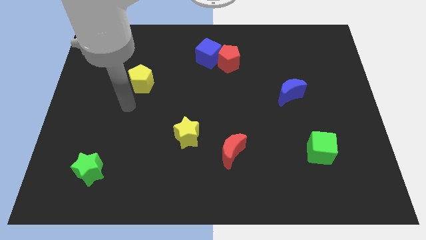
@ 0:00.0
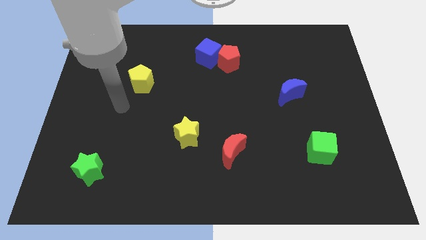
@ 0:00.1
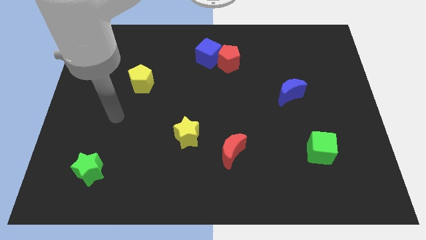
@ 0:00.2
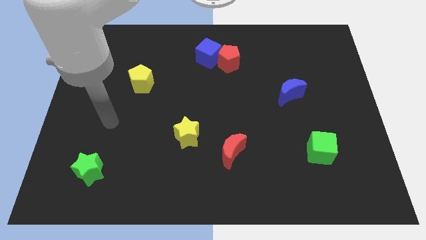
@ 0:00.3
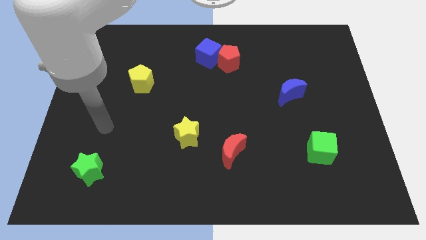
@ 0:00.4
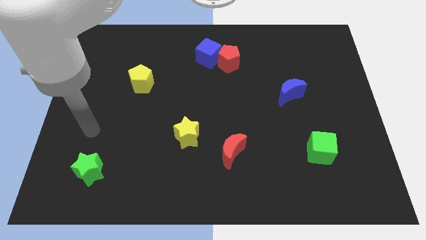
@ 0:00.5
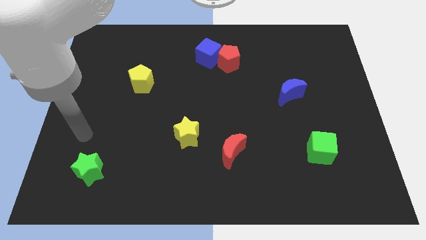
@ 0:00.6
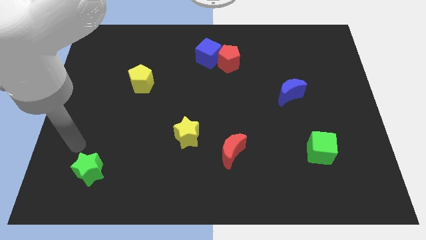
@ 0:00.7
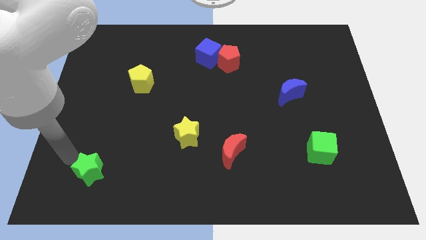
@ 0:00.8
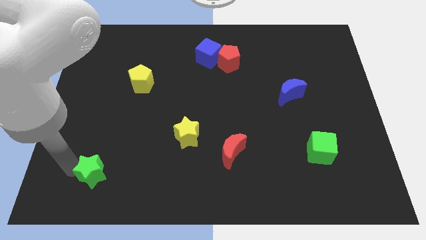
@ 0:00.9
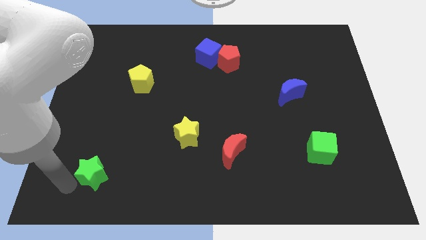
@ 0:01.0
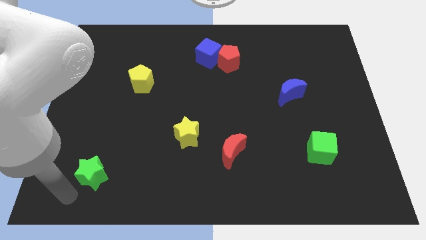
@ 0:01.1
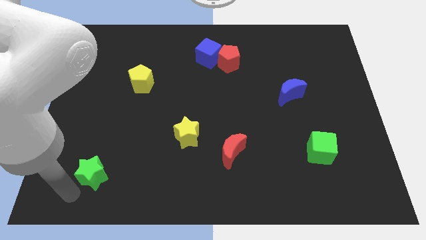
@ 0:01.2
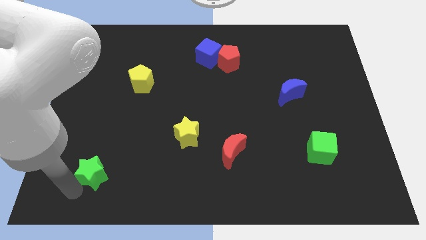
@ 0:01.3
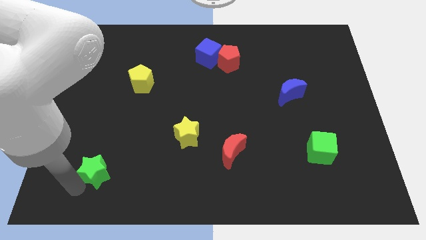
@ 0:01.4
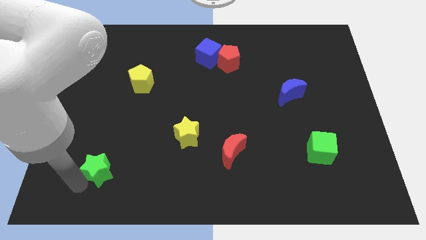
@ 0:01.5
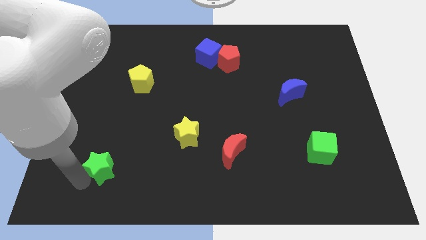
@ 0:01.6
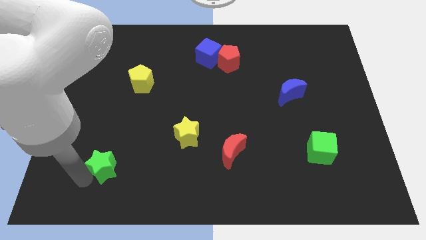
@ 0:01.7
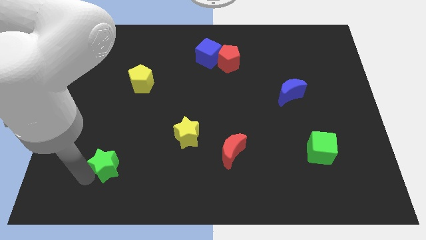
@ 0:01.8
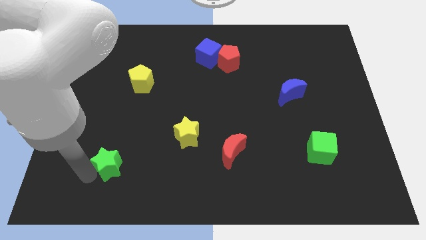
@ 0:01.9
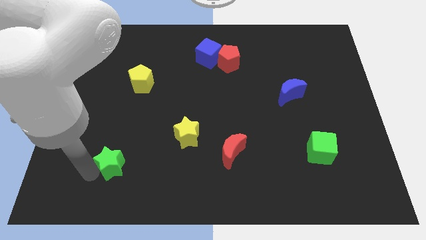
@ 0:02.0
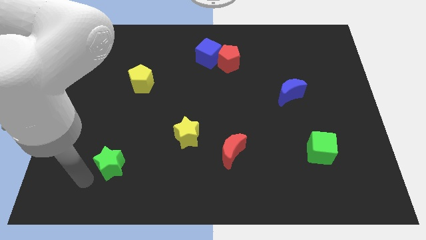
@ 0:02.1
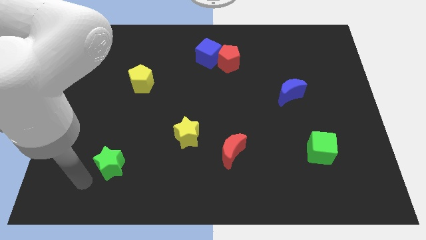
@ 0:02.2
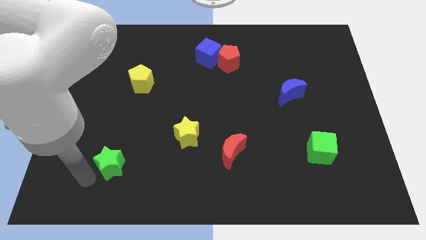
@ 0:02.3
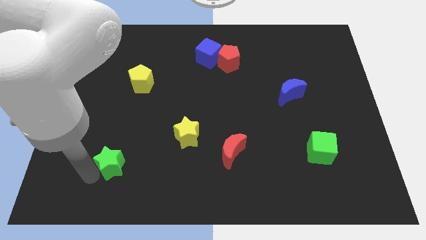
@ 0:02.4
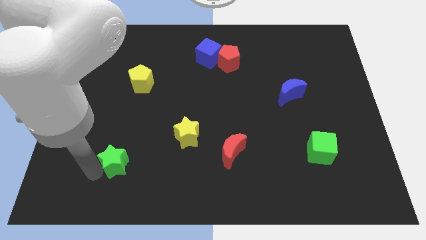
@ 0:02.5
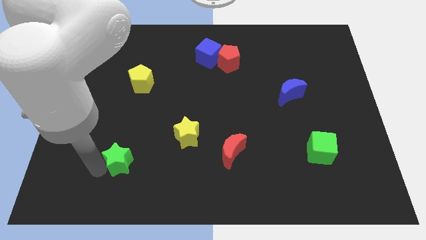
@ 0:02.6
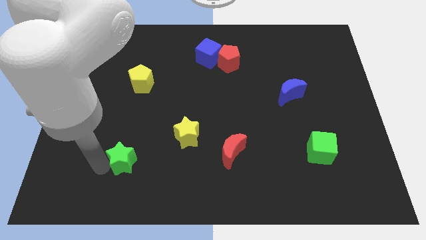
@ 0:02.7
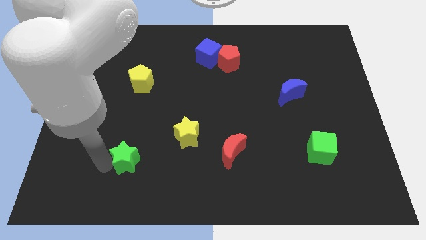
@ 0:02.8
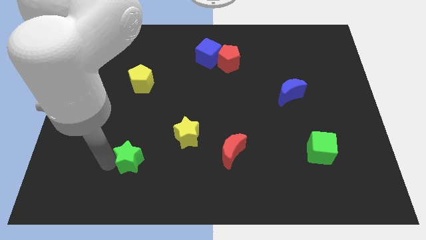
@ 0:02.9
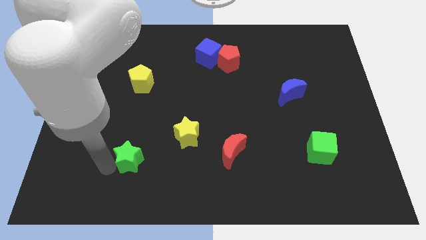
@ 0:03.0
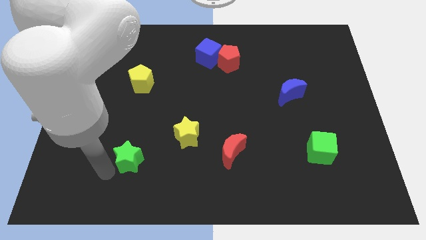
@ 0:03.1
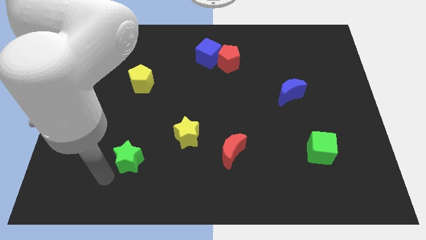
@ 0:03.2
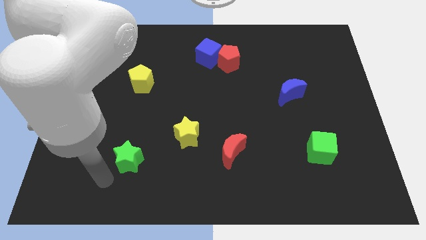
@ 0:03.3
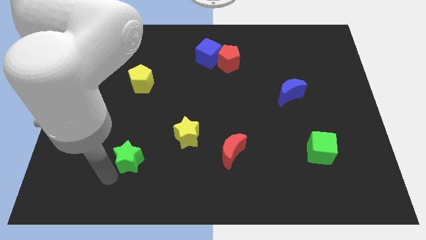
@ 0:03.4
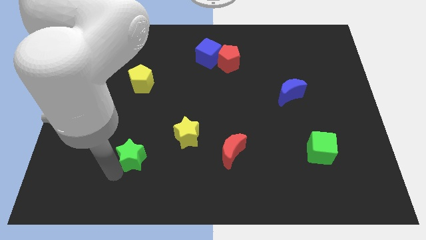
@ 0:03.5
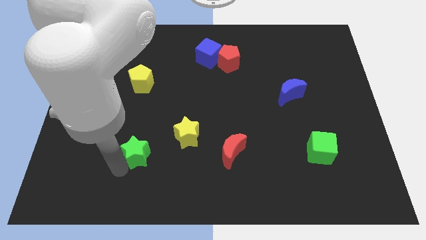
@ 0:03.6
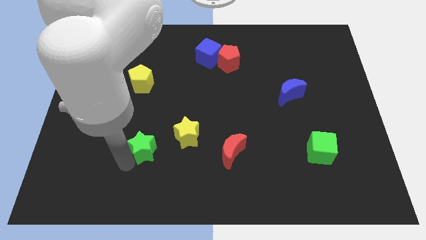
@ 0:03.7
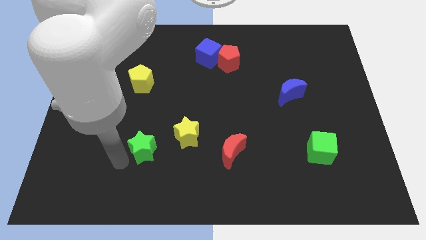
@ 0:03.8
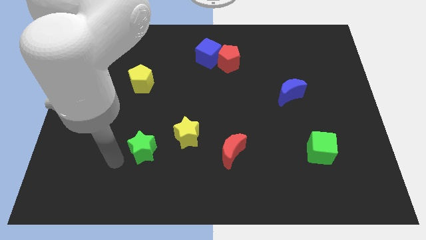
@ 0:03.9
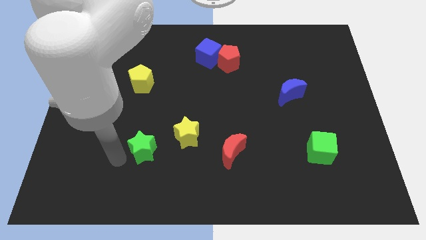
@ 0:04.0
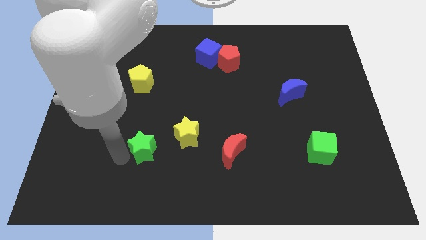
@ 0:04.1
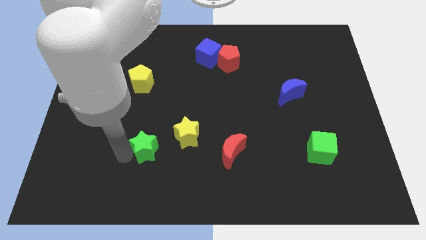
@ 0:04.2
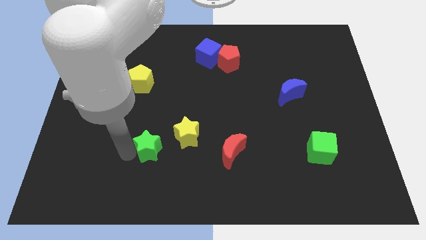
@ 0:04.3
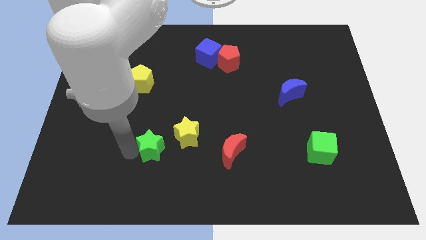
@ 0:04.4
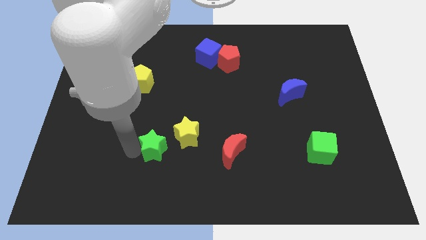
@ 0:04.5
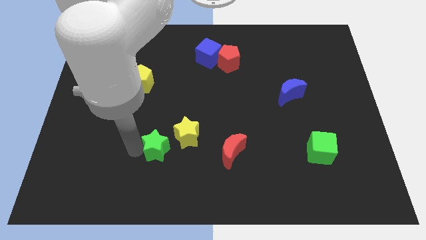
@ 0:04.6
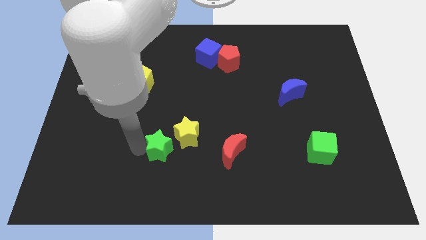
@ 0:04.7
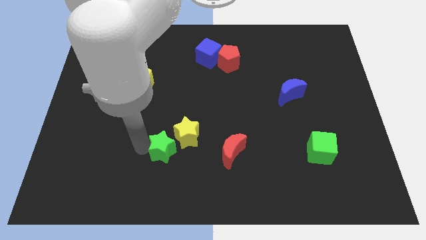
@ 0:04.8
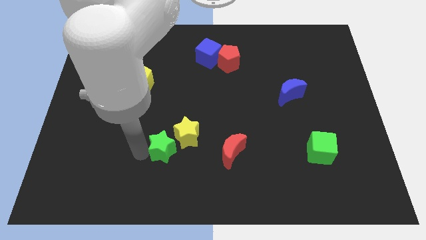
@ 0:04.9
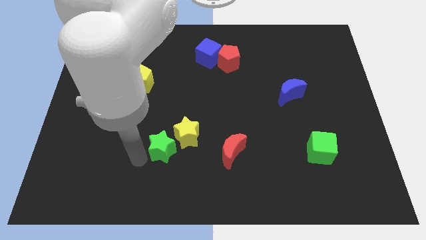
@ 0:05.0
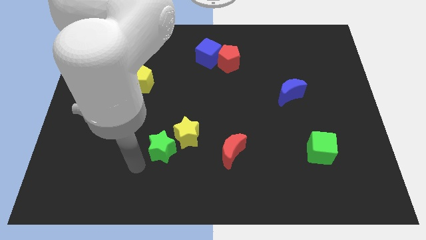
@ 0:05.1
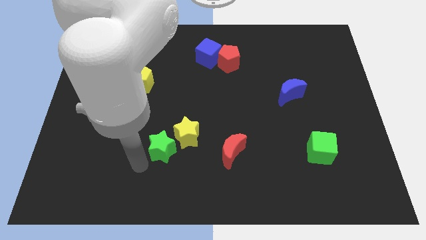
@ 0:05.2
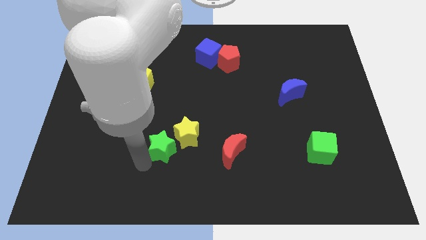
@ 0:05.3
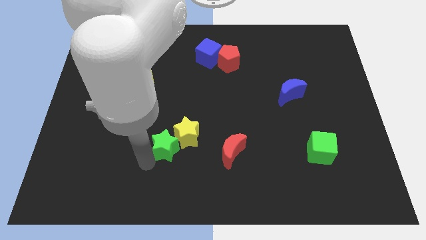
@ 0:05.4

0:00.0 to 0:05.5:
move the green star close to the yellow star

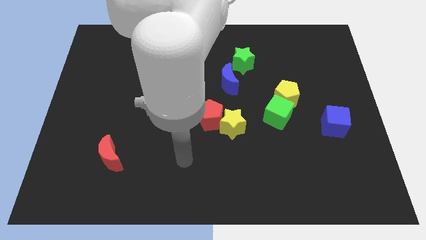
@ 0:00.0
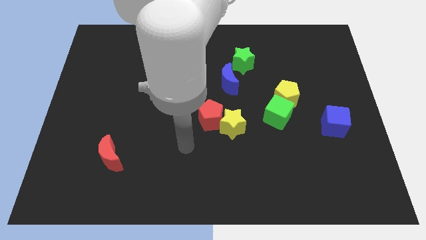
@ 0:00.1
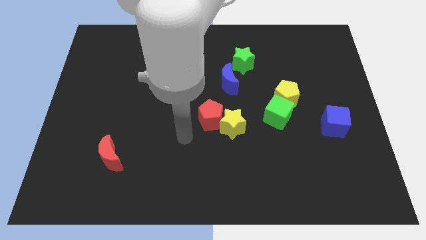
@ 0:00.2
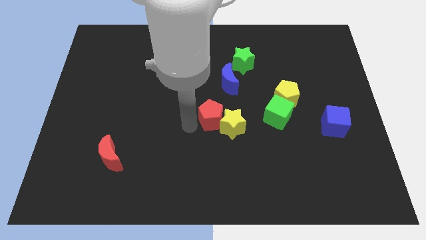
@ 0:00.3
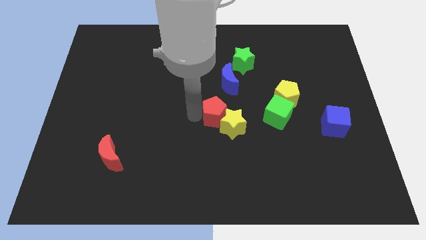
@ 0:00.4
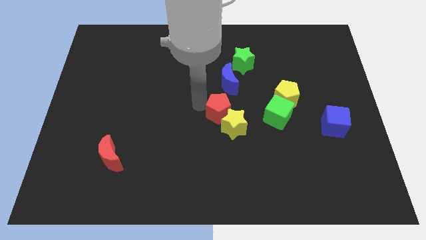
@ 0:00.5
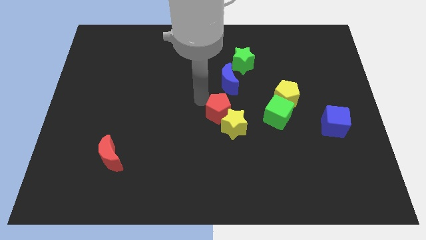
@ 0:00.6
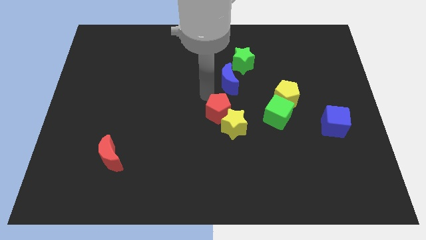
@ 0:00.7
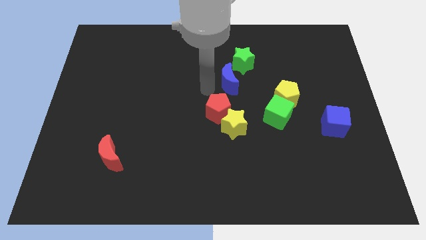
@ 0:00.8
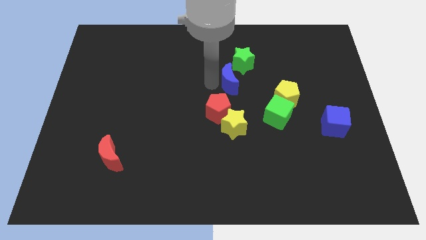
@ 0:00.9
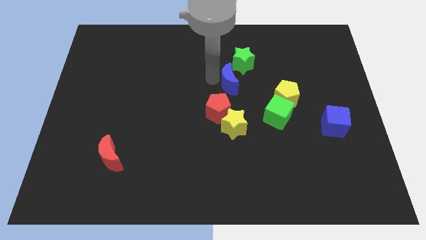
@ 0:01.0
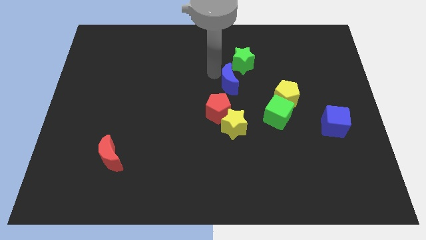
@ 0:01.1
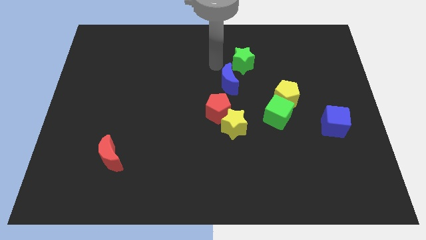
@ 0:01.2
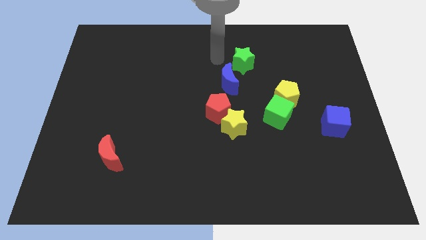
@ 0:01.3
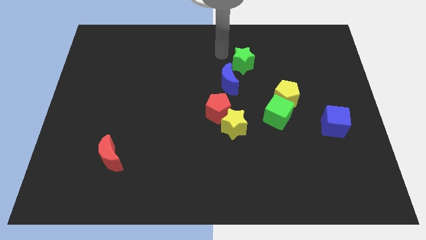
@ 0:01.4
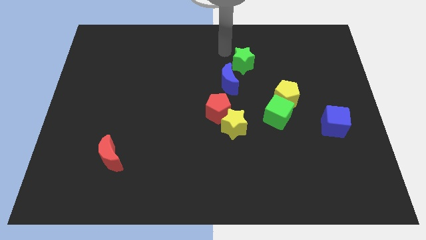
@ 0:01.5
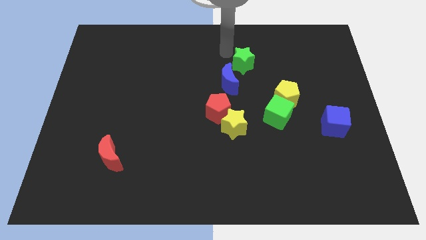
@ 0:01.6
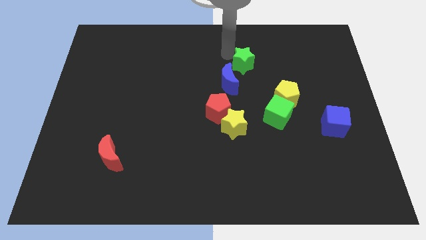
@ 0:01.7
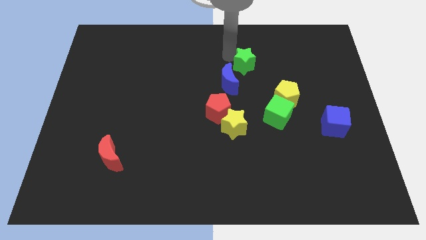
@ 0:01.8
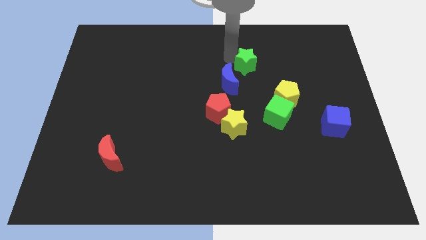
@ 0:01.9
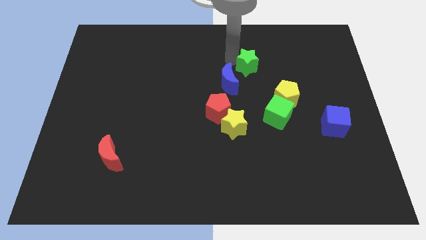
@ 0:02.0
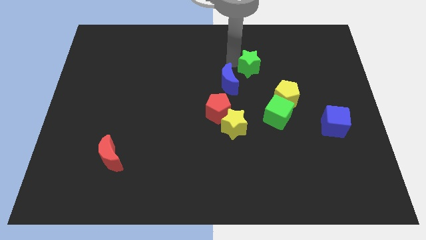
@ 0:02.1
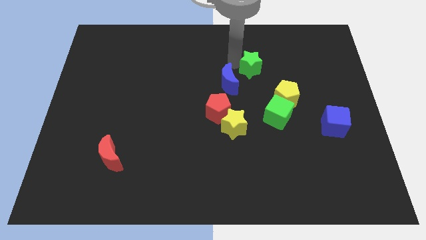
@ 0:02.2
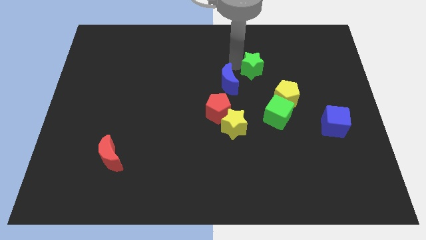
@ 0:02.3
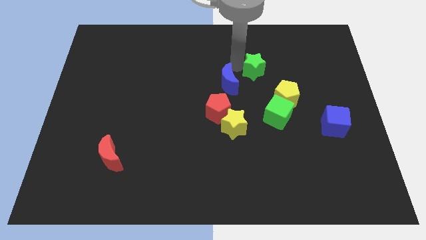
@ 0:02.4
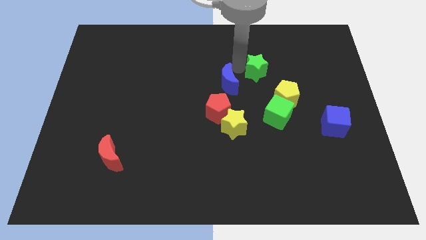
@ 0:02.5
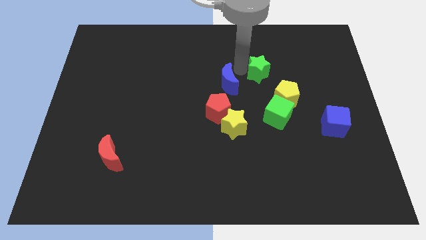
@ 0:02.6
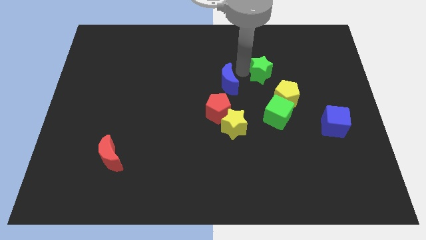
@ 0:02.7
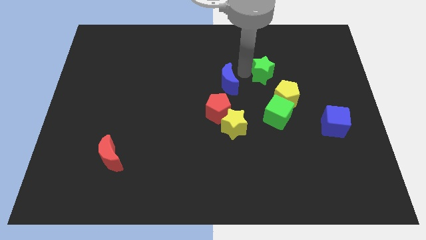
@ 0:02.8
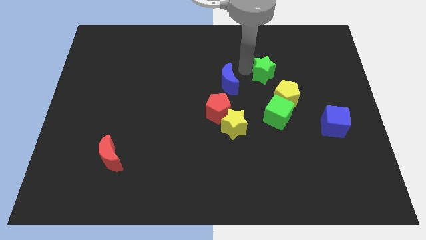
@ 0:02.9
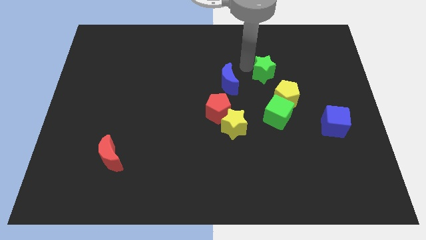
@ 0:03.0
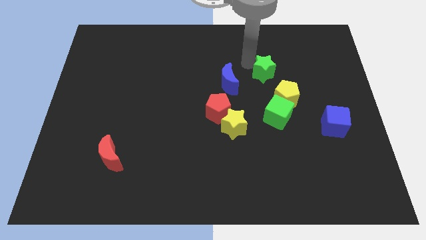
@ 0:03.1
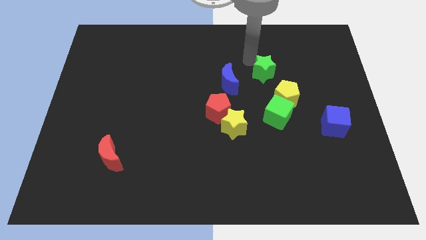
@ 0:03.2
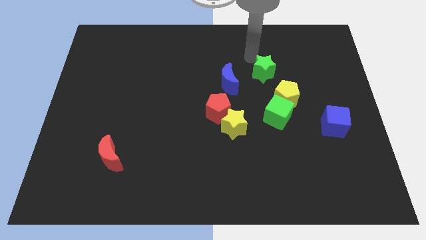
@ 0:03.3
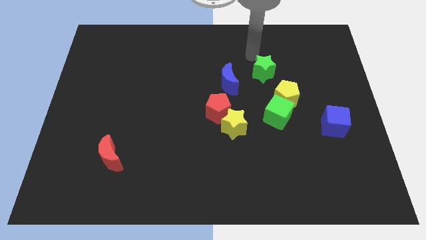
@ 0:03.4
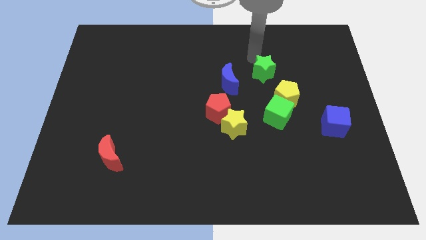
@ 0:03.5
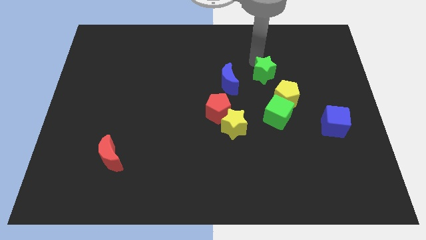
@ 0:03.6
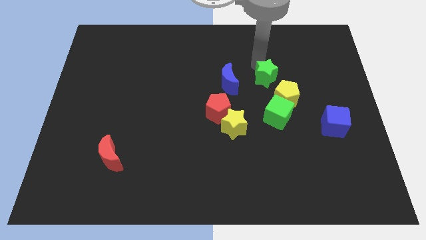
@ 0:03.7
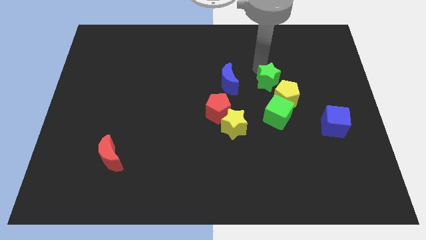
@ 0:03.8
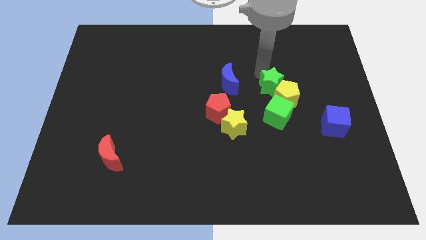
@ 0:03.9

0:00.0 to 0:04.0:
put the green star towards the yellow pentagon
